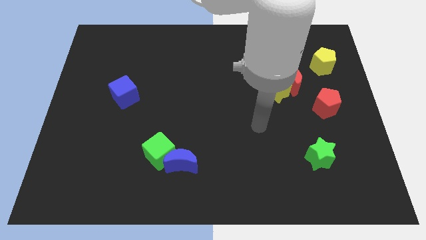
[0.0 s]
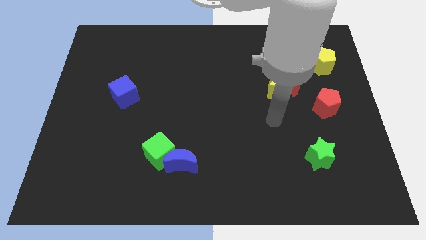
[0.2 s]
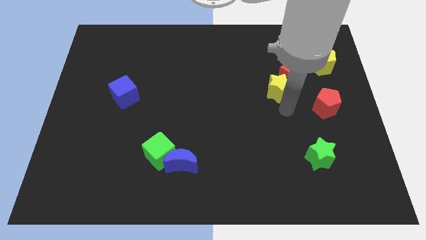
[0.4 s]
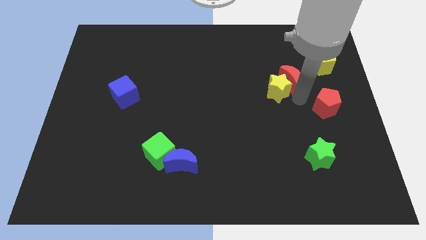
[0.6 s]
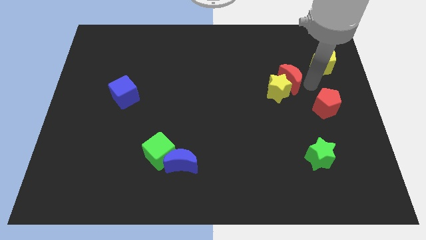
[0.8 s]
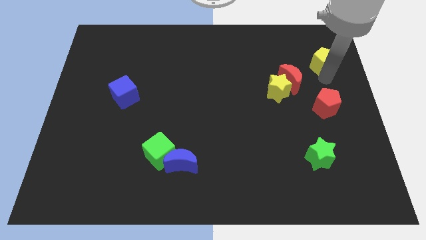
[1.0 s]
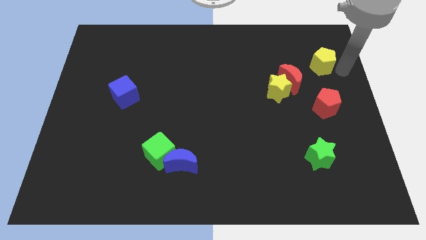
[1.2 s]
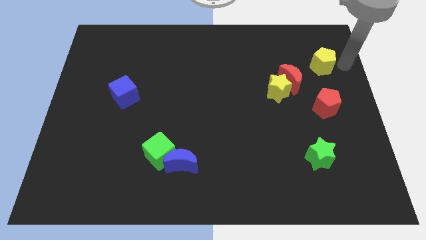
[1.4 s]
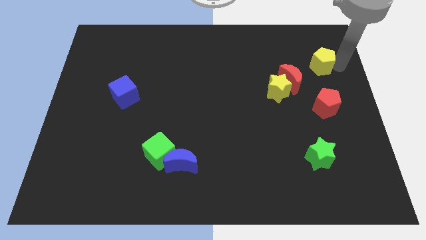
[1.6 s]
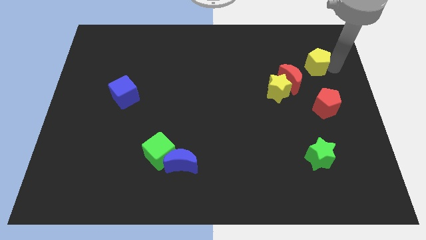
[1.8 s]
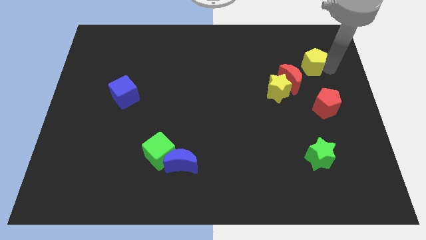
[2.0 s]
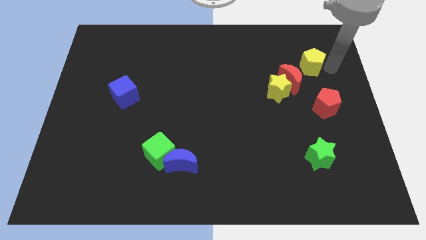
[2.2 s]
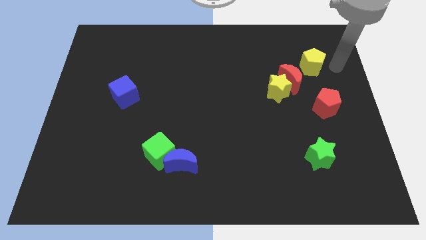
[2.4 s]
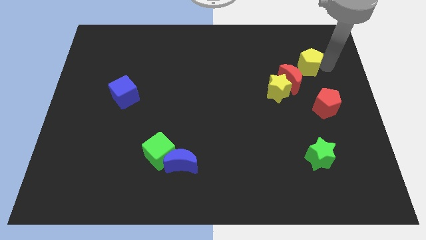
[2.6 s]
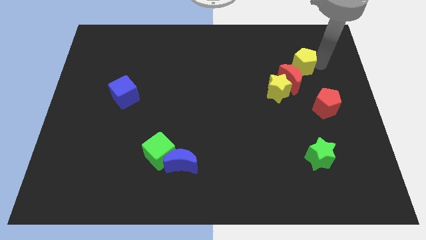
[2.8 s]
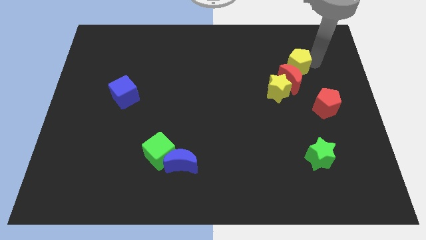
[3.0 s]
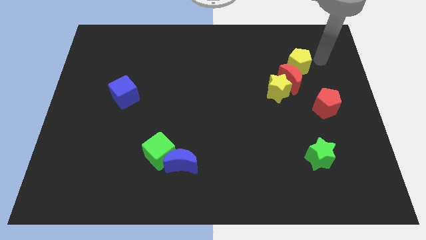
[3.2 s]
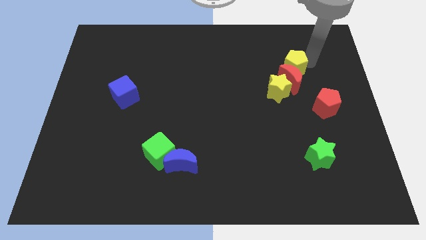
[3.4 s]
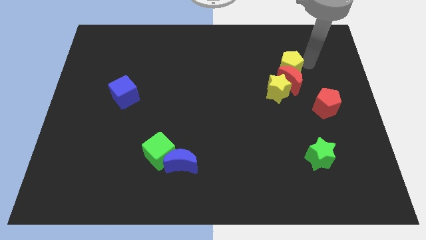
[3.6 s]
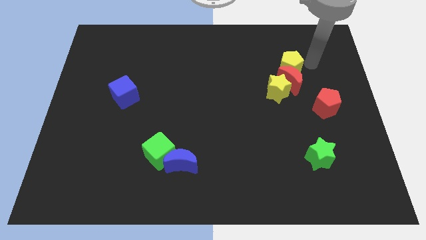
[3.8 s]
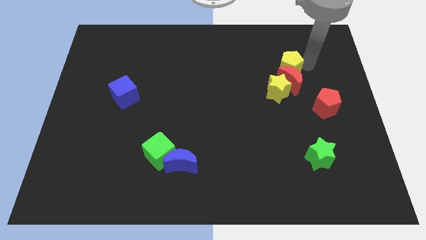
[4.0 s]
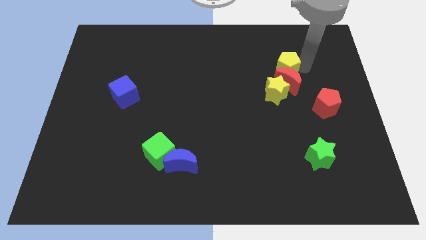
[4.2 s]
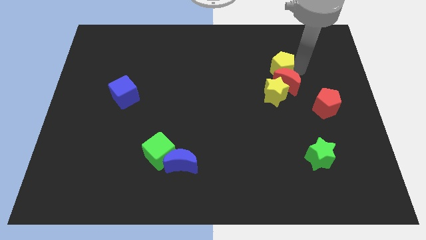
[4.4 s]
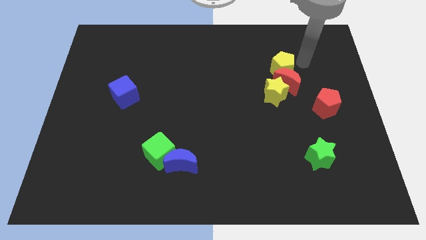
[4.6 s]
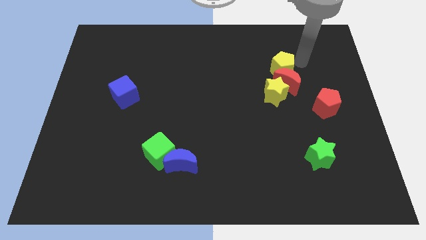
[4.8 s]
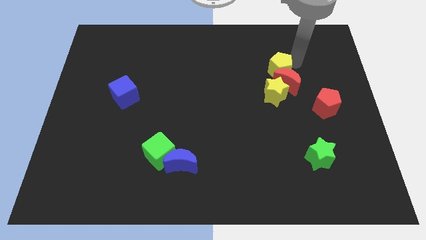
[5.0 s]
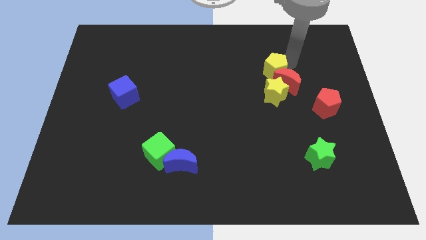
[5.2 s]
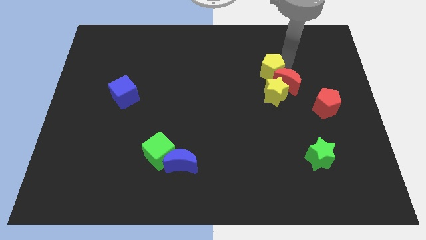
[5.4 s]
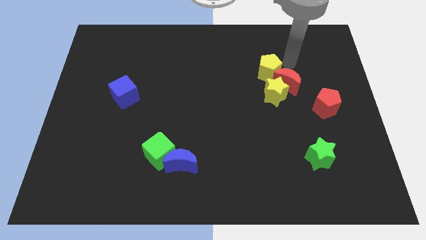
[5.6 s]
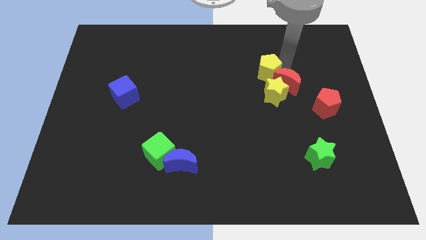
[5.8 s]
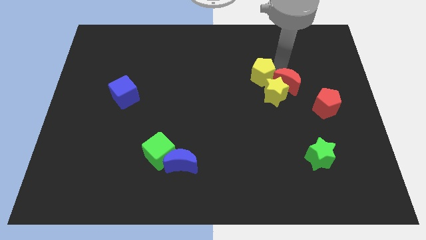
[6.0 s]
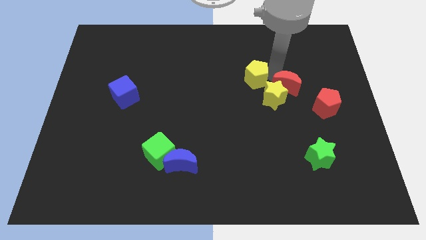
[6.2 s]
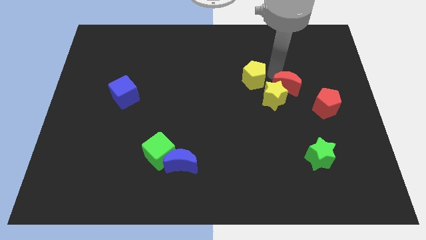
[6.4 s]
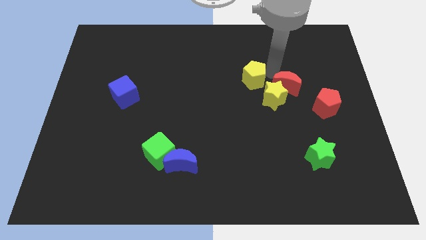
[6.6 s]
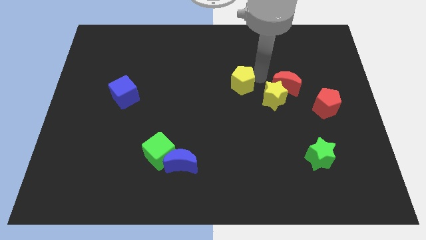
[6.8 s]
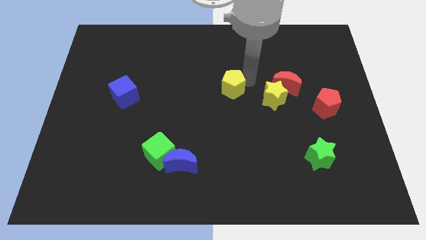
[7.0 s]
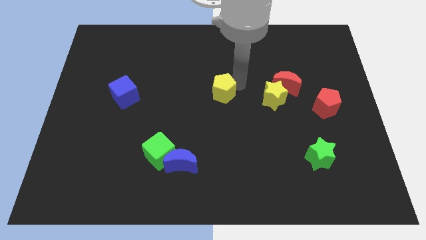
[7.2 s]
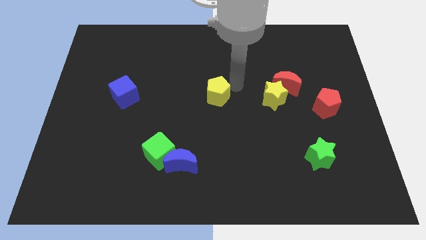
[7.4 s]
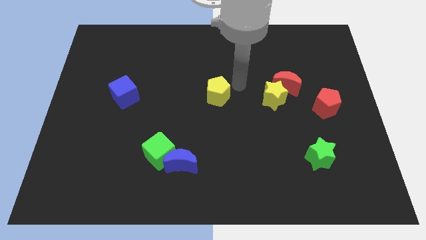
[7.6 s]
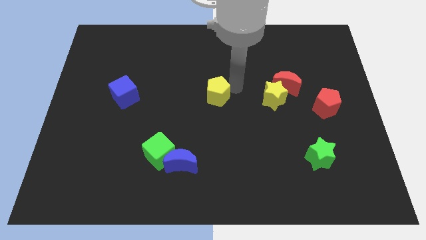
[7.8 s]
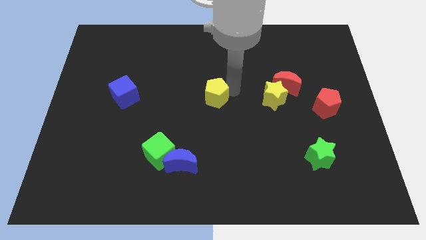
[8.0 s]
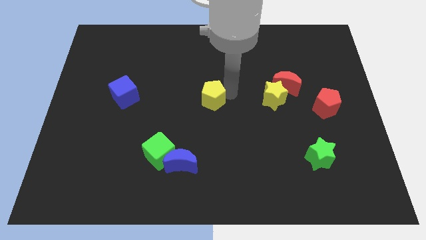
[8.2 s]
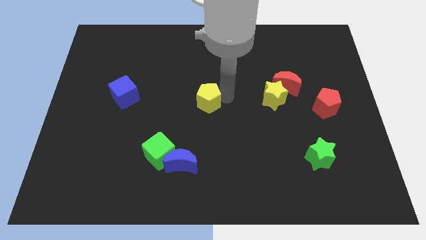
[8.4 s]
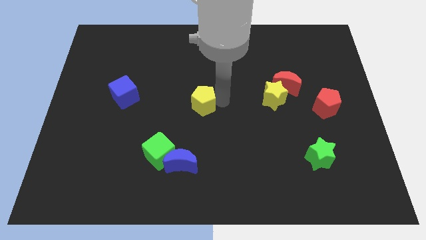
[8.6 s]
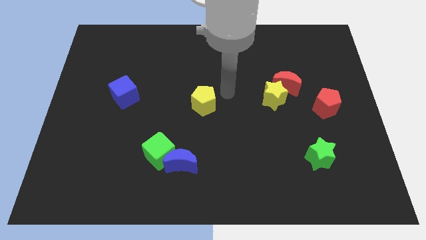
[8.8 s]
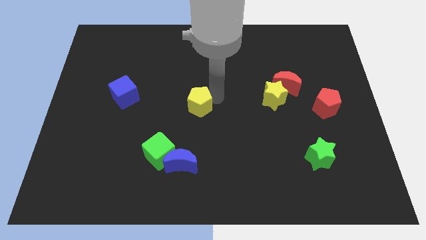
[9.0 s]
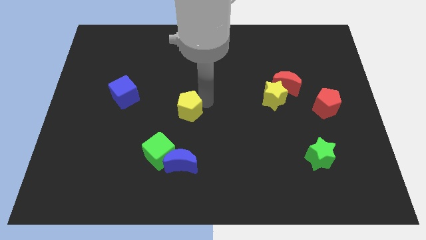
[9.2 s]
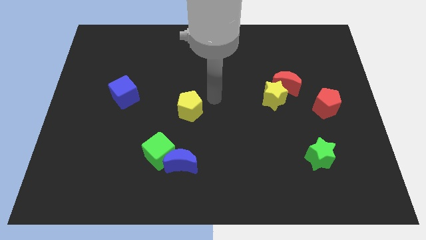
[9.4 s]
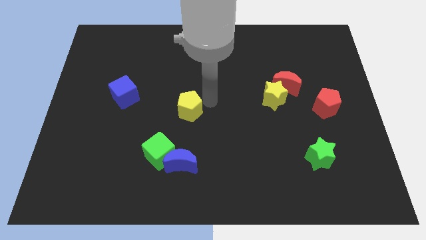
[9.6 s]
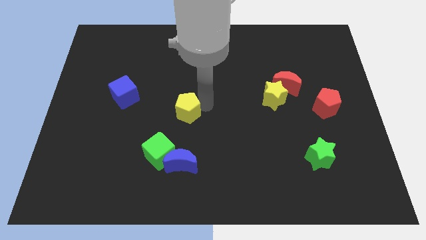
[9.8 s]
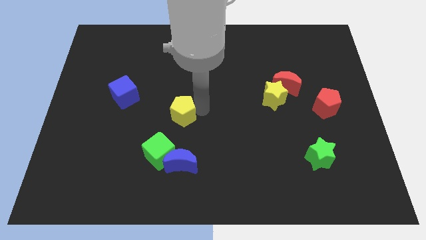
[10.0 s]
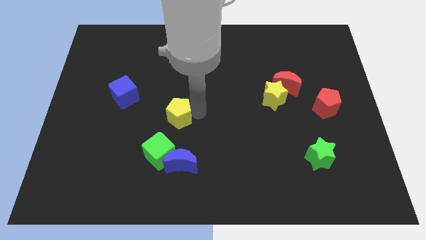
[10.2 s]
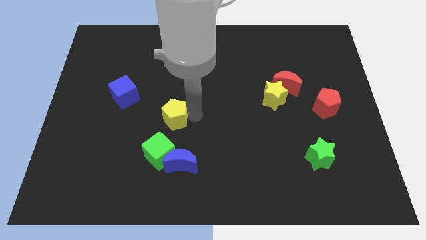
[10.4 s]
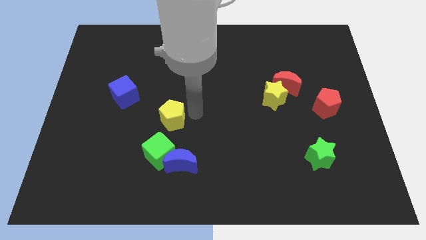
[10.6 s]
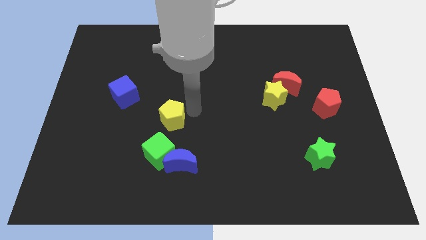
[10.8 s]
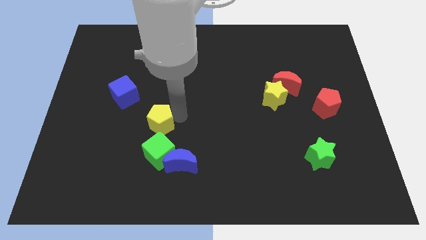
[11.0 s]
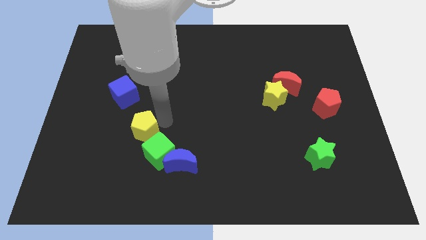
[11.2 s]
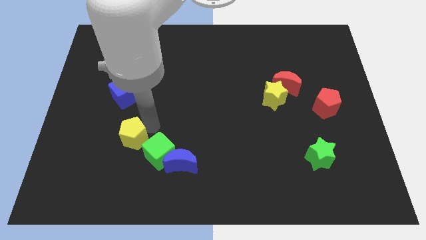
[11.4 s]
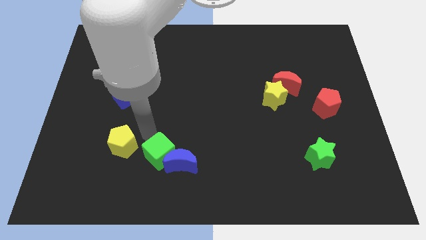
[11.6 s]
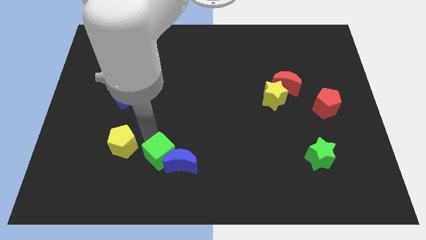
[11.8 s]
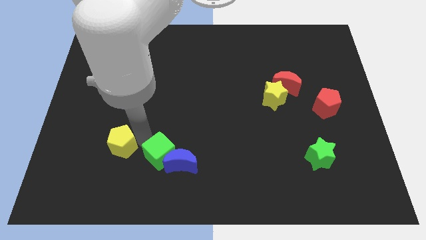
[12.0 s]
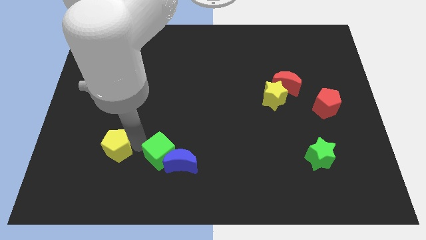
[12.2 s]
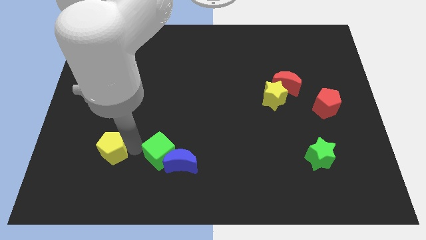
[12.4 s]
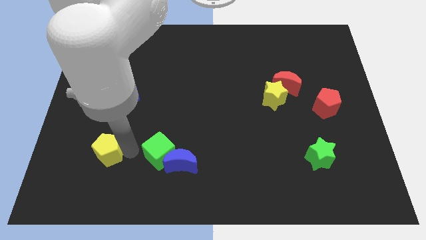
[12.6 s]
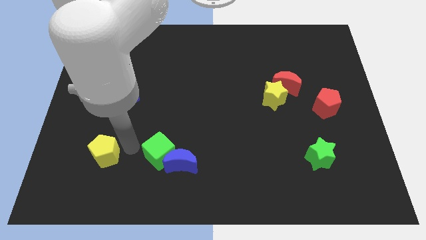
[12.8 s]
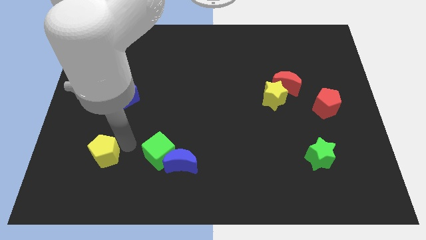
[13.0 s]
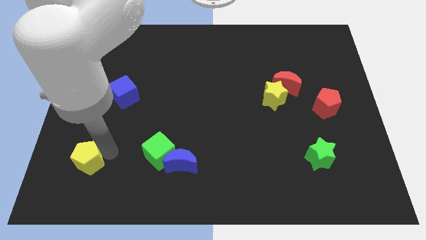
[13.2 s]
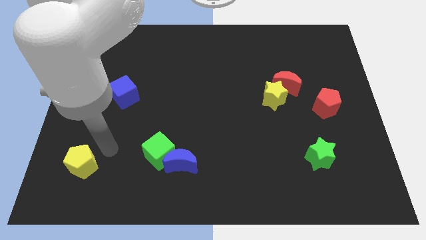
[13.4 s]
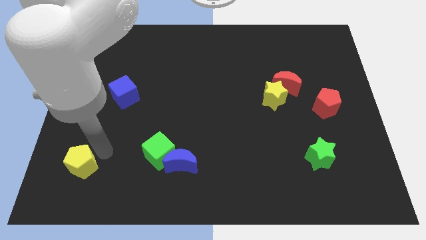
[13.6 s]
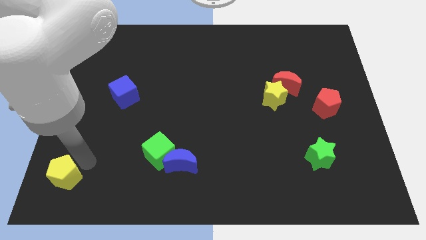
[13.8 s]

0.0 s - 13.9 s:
move the yellow pentagon to the bottom left

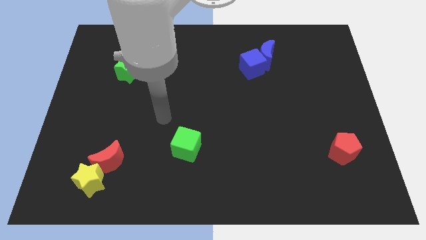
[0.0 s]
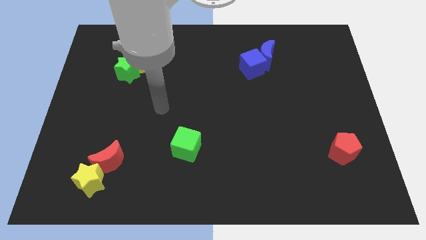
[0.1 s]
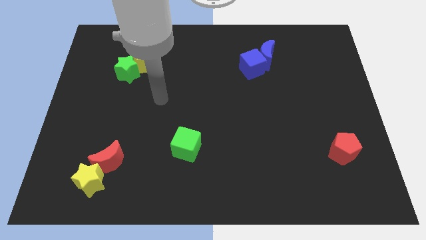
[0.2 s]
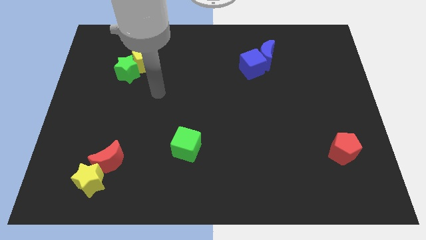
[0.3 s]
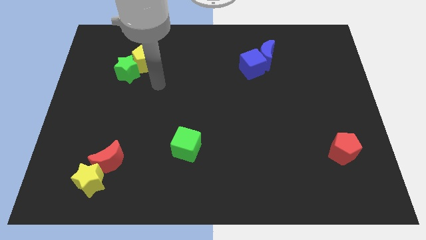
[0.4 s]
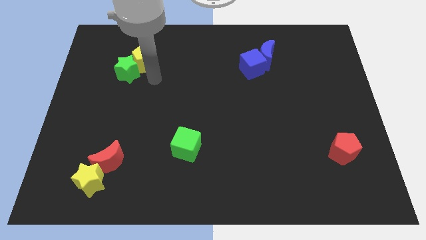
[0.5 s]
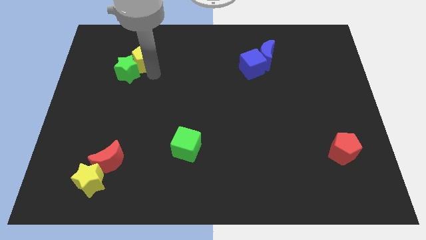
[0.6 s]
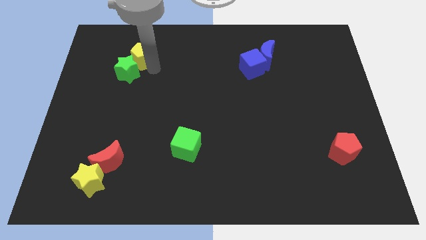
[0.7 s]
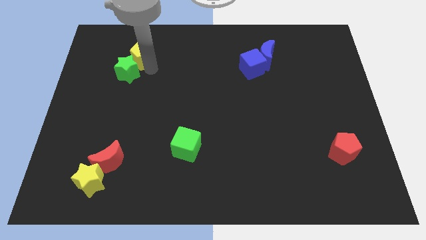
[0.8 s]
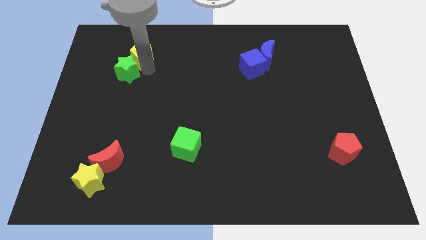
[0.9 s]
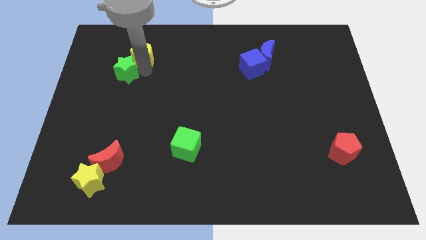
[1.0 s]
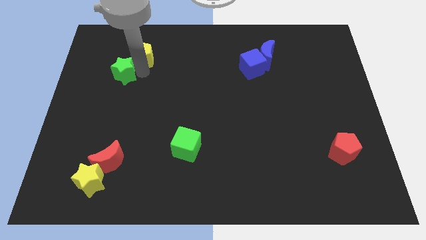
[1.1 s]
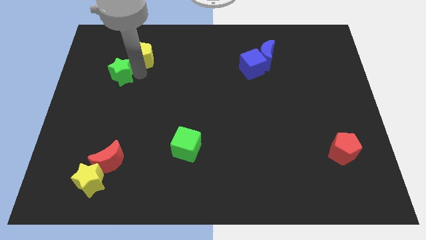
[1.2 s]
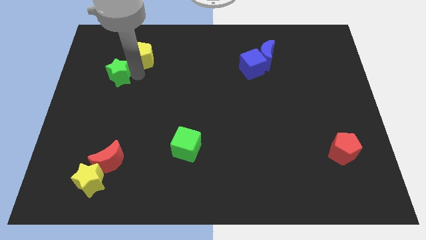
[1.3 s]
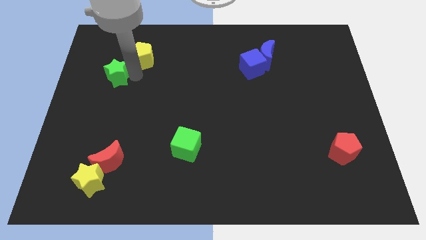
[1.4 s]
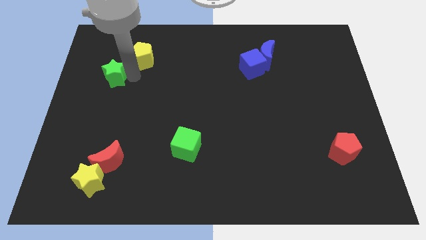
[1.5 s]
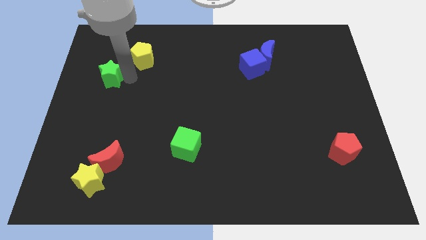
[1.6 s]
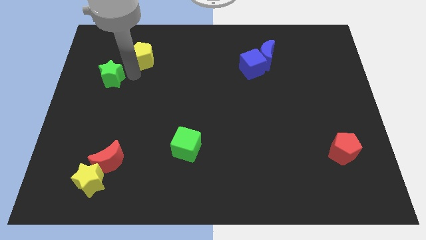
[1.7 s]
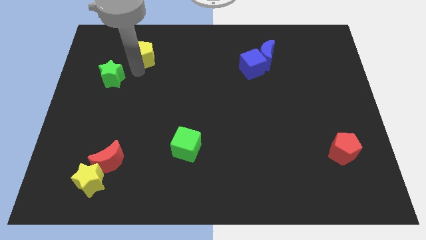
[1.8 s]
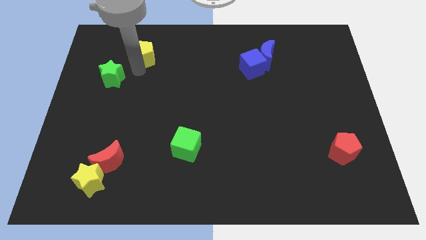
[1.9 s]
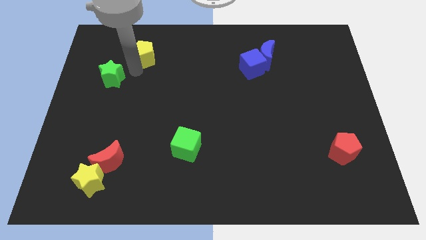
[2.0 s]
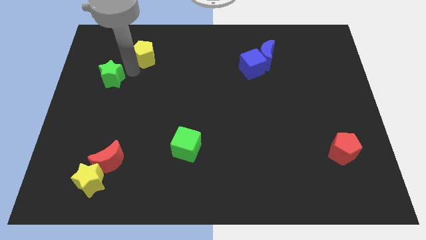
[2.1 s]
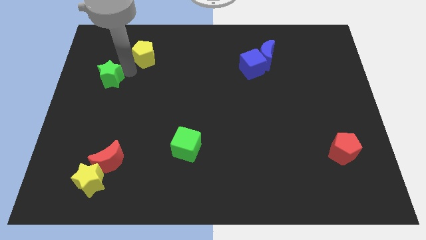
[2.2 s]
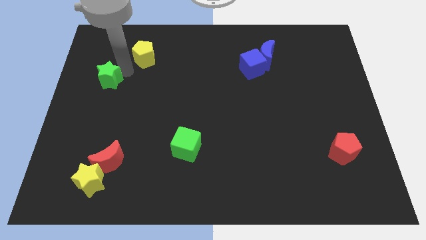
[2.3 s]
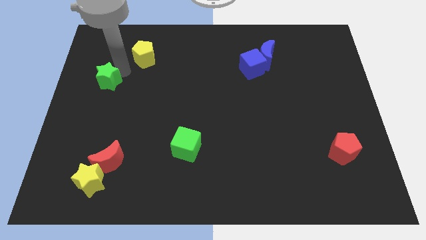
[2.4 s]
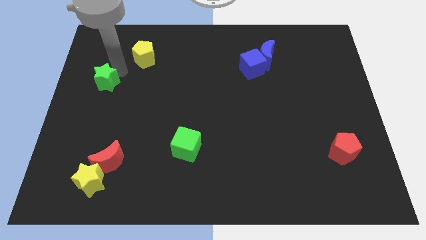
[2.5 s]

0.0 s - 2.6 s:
put the green star to the left side of the board
